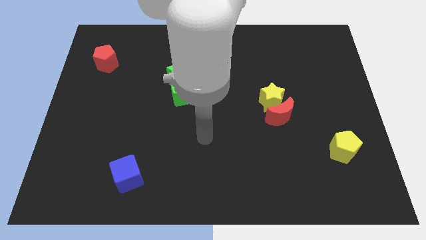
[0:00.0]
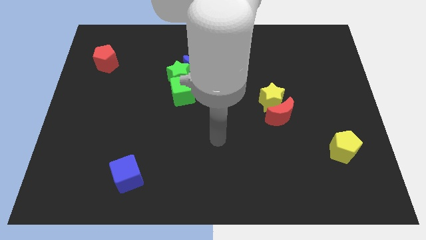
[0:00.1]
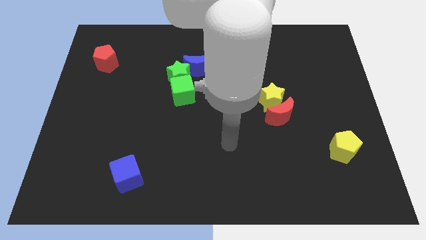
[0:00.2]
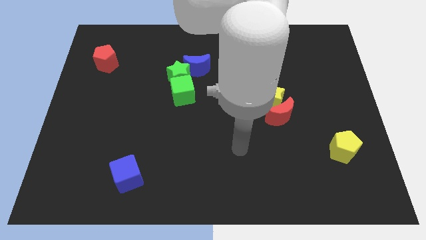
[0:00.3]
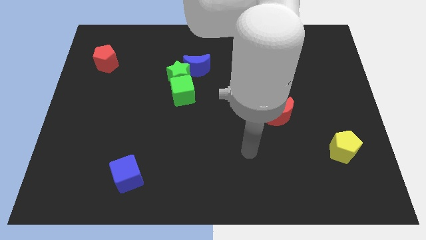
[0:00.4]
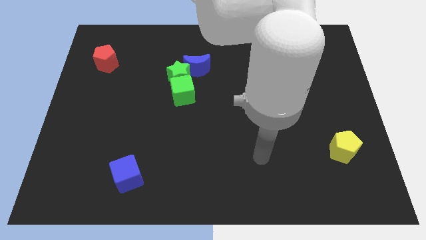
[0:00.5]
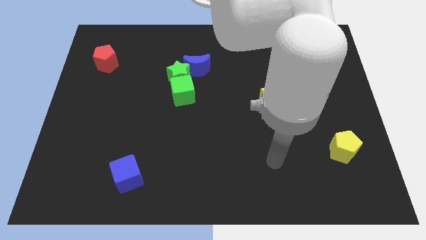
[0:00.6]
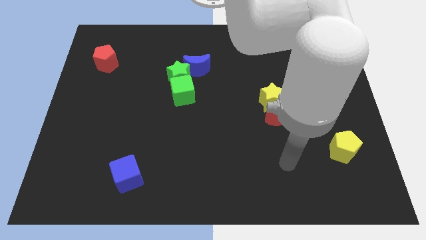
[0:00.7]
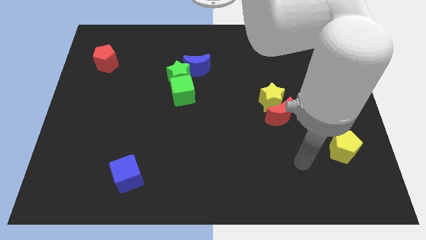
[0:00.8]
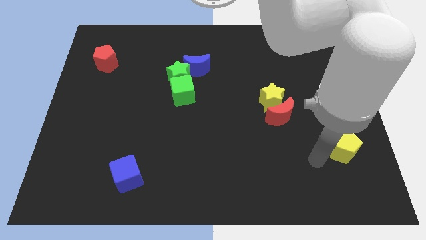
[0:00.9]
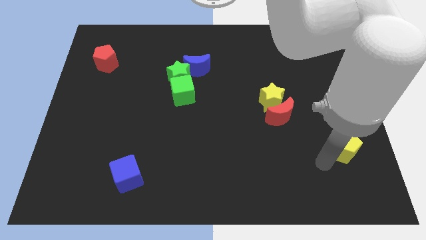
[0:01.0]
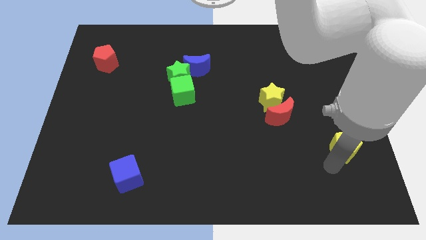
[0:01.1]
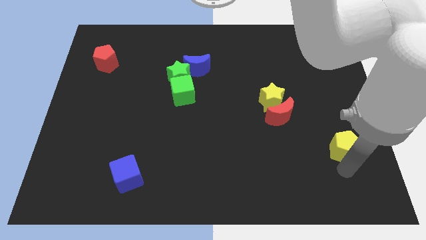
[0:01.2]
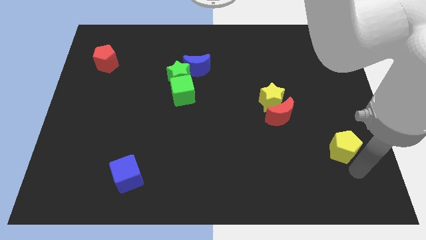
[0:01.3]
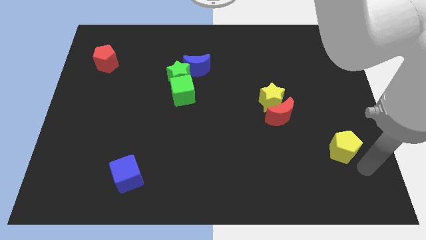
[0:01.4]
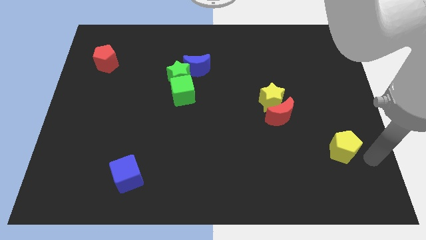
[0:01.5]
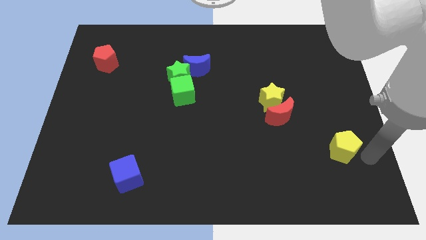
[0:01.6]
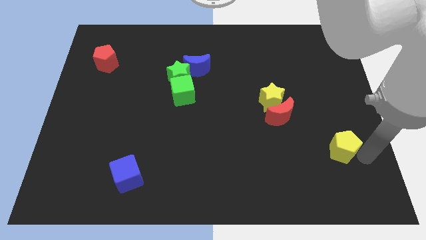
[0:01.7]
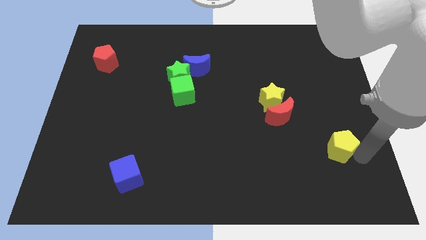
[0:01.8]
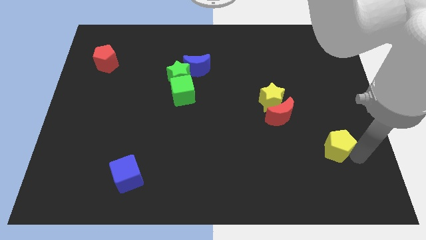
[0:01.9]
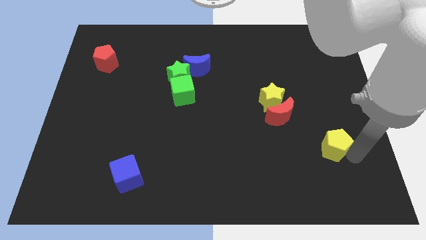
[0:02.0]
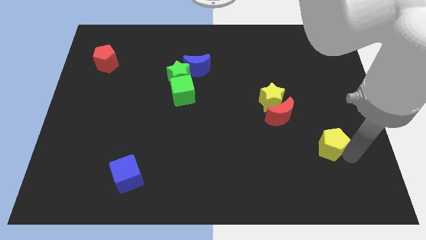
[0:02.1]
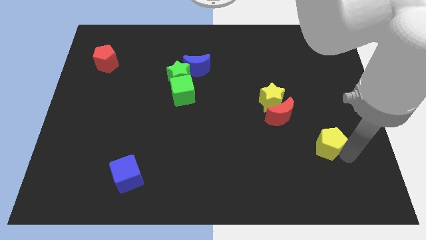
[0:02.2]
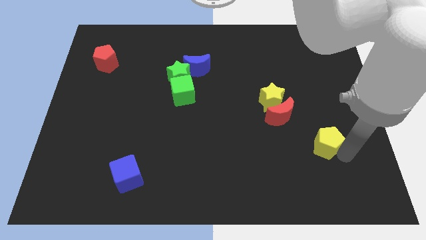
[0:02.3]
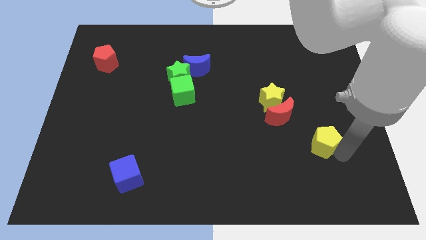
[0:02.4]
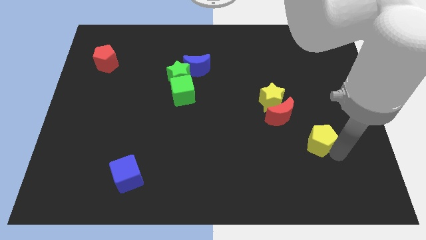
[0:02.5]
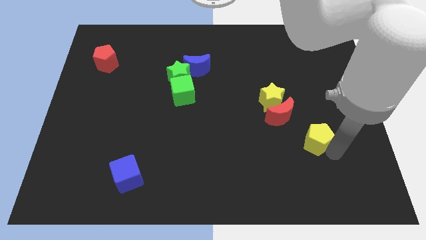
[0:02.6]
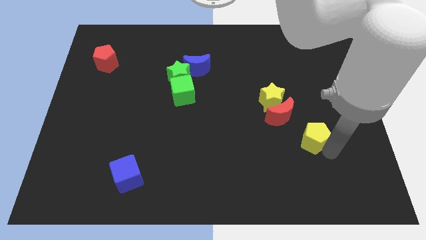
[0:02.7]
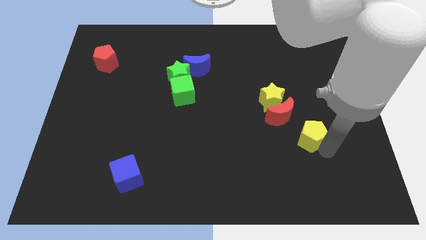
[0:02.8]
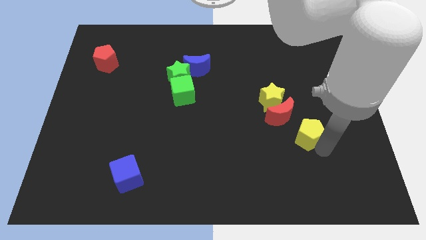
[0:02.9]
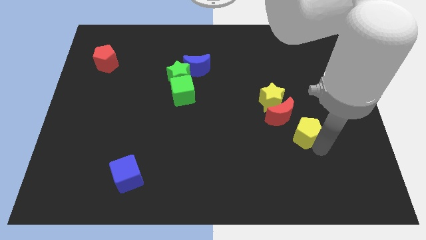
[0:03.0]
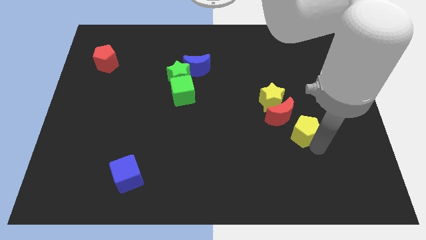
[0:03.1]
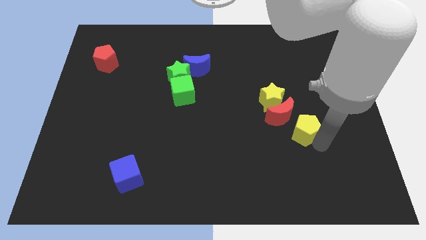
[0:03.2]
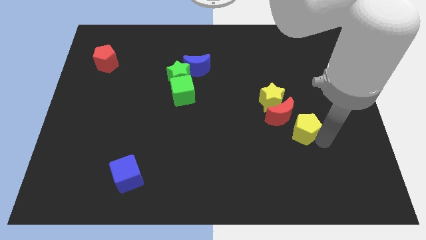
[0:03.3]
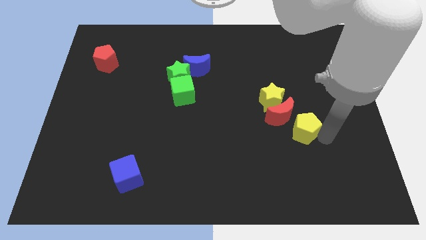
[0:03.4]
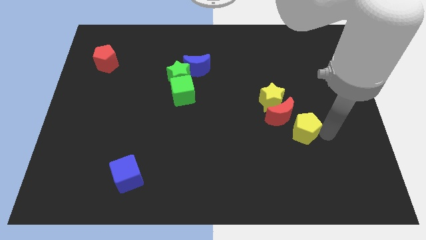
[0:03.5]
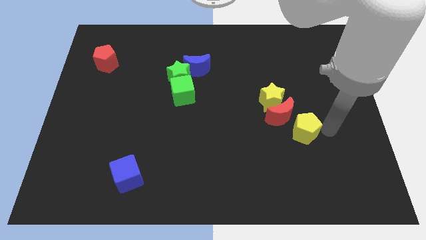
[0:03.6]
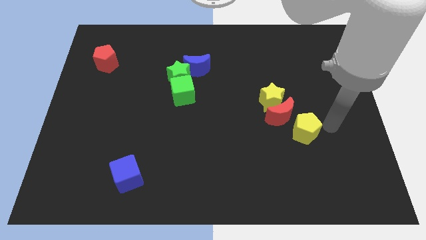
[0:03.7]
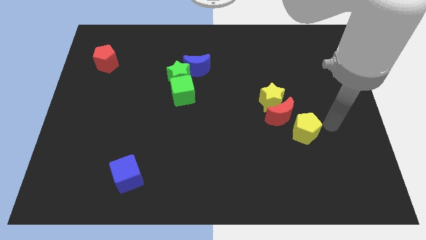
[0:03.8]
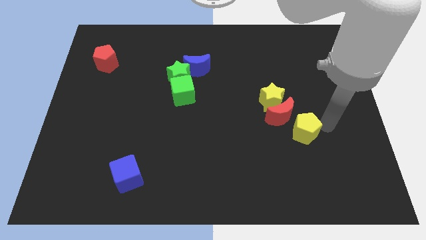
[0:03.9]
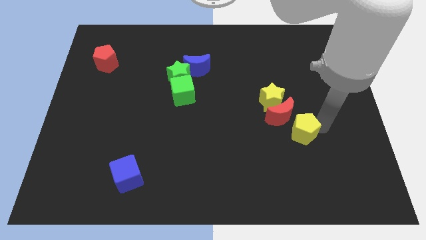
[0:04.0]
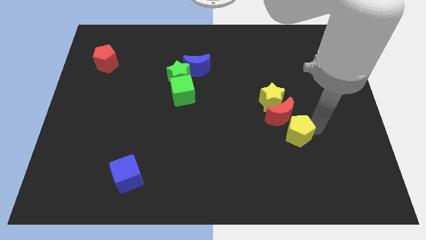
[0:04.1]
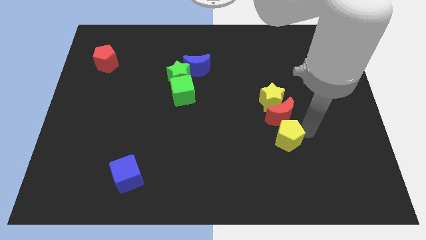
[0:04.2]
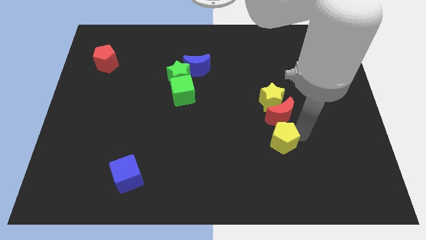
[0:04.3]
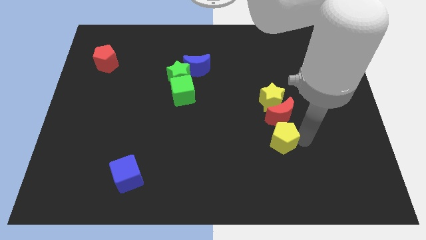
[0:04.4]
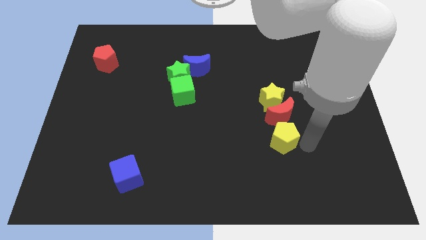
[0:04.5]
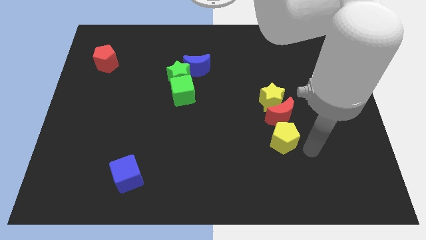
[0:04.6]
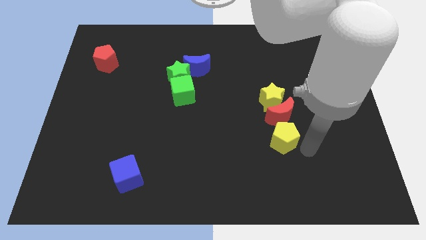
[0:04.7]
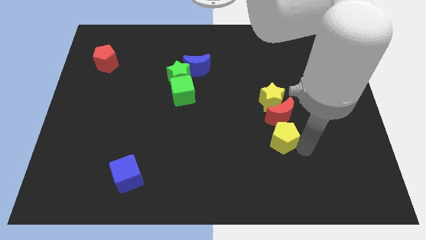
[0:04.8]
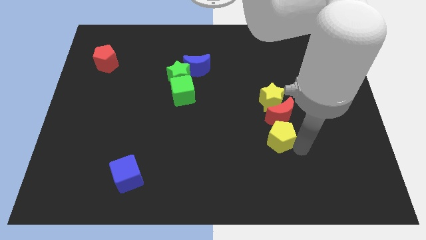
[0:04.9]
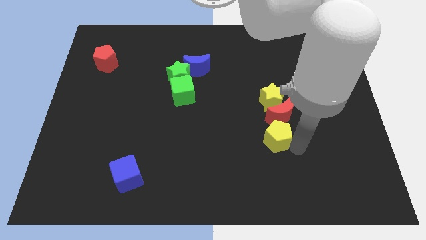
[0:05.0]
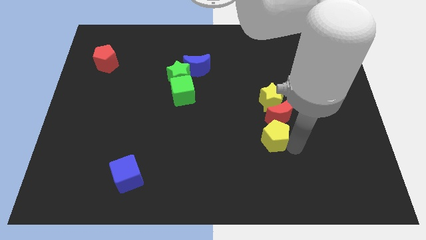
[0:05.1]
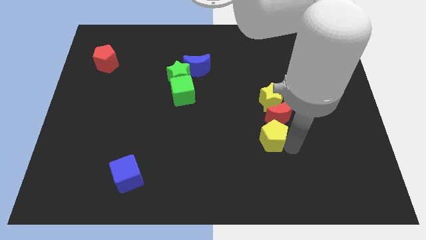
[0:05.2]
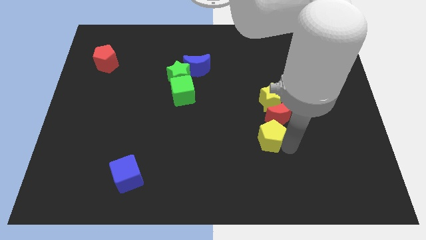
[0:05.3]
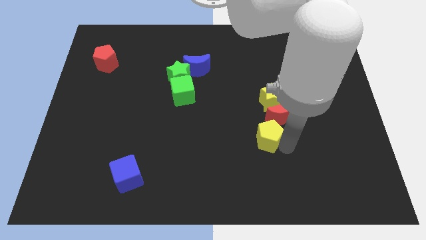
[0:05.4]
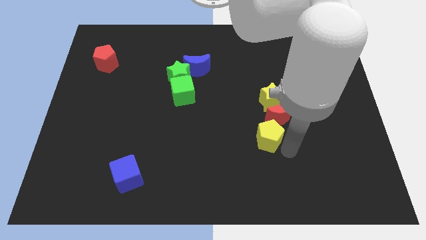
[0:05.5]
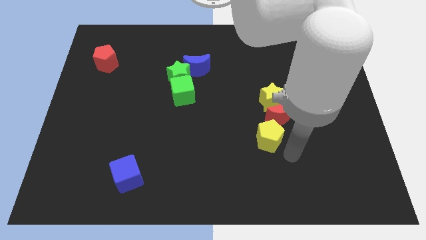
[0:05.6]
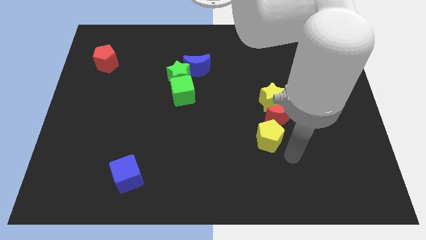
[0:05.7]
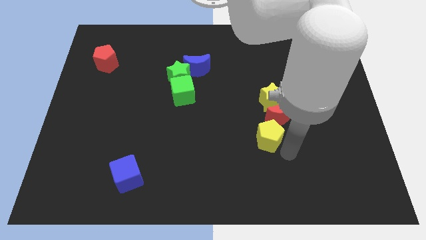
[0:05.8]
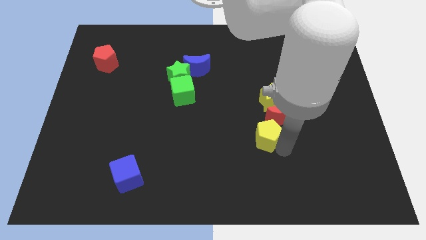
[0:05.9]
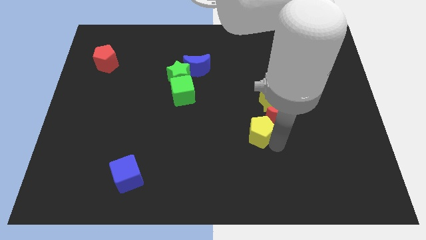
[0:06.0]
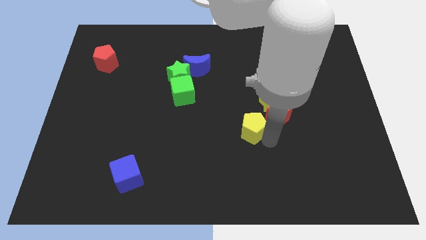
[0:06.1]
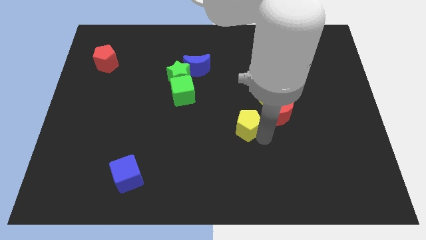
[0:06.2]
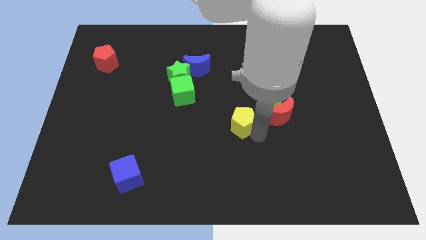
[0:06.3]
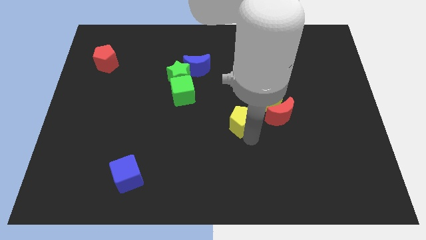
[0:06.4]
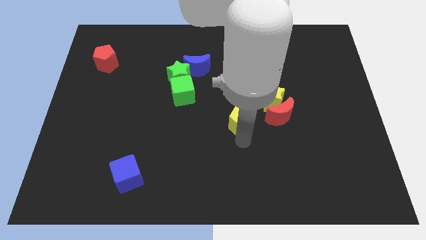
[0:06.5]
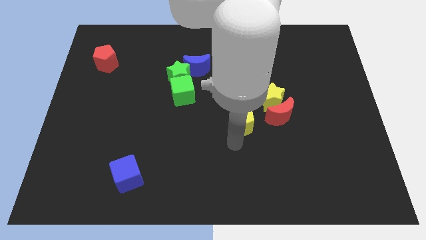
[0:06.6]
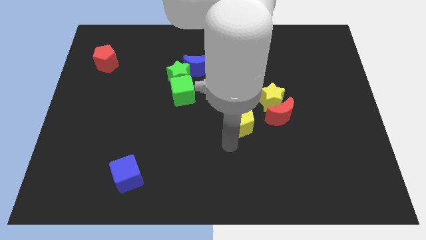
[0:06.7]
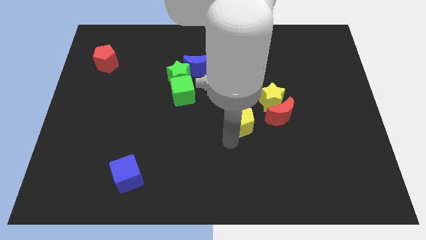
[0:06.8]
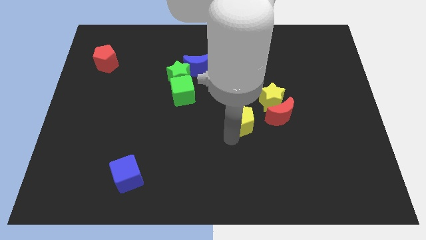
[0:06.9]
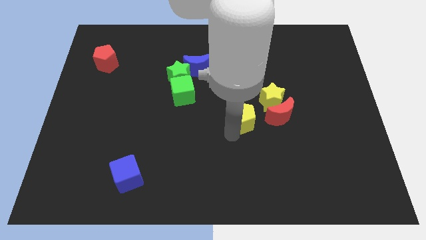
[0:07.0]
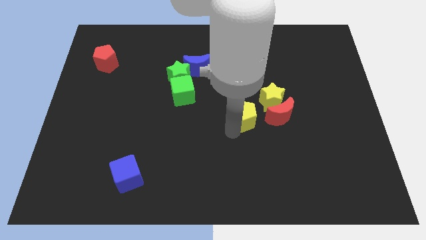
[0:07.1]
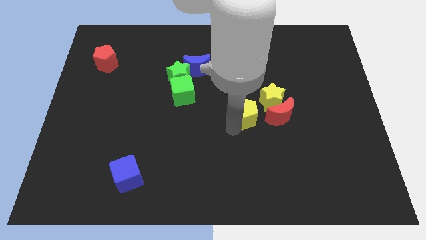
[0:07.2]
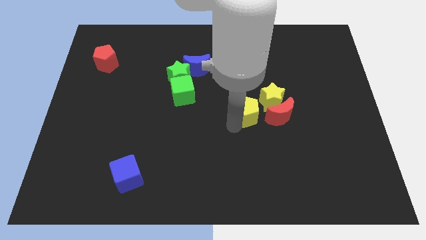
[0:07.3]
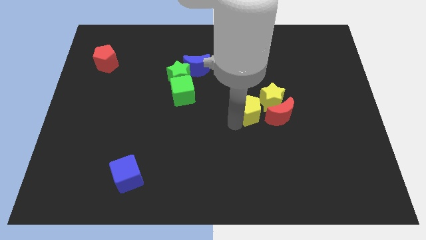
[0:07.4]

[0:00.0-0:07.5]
push the yellow pentagon to the top left of the red moon
